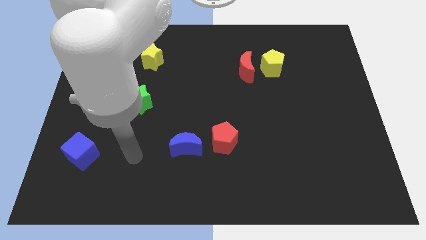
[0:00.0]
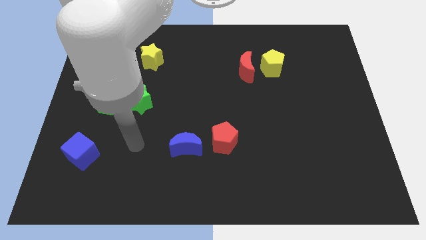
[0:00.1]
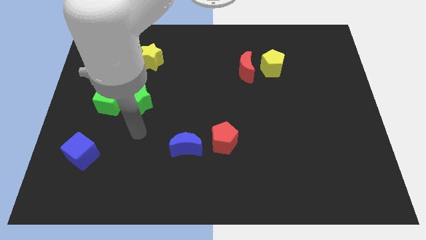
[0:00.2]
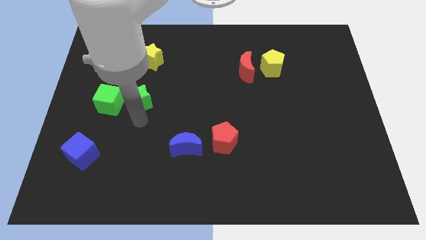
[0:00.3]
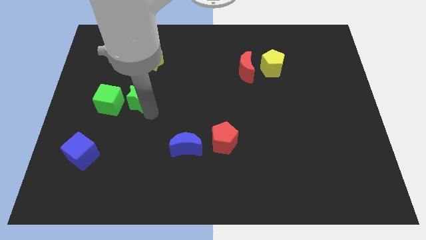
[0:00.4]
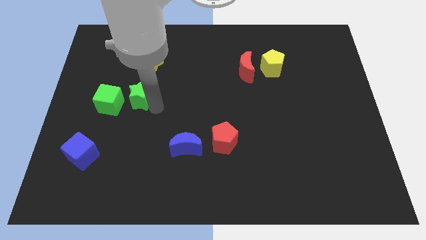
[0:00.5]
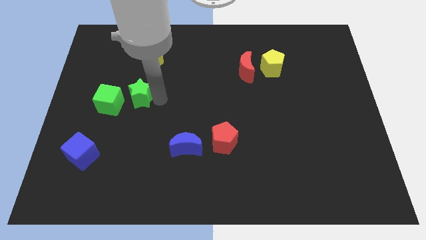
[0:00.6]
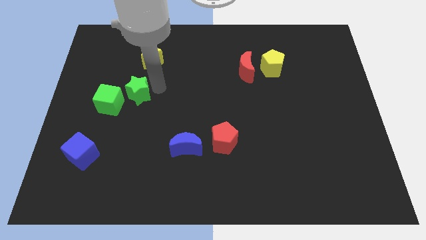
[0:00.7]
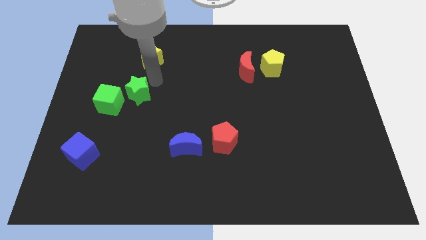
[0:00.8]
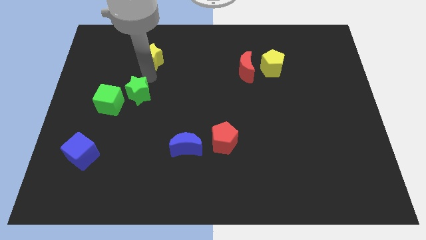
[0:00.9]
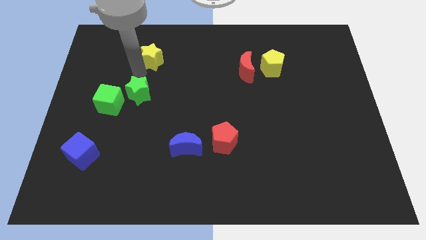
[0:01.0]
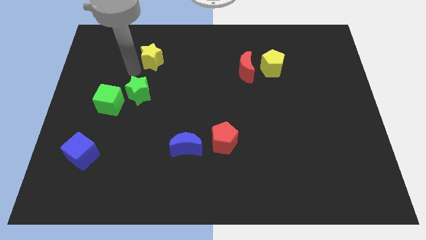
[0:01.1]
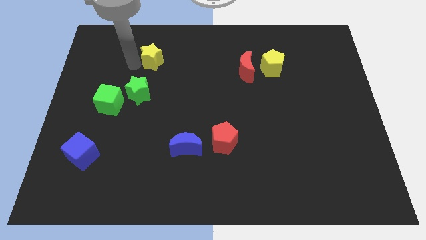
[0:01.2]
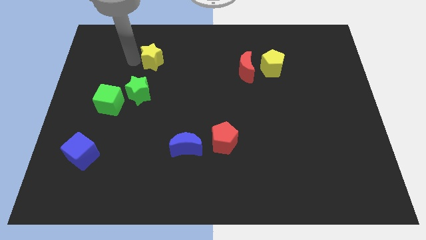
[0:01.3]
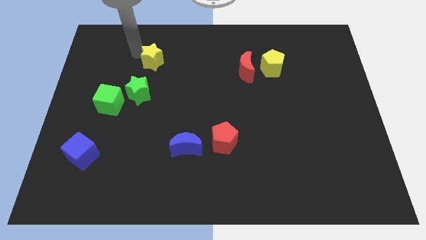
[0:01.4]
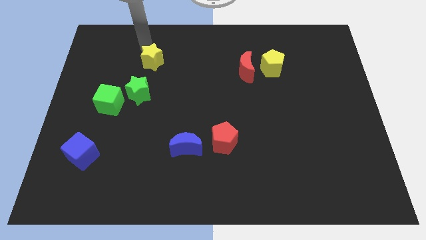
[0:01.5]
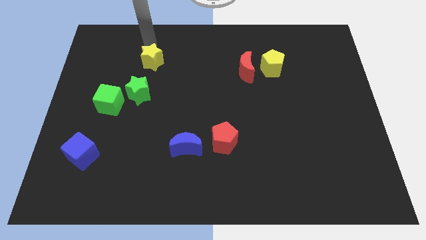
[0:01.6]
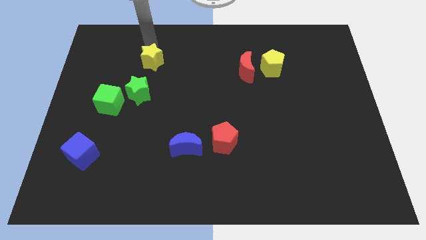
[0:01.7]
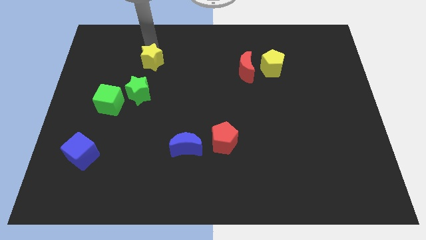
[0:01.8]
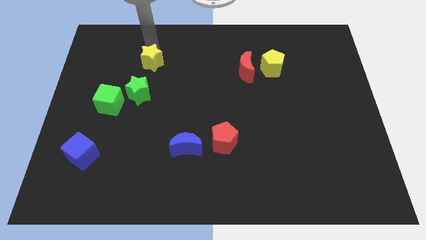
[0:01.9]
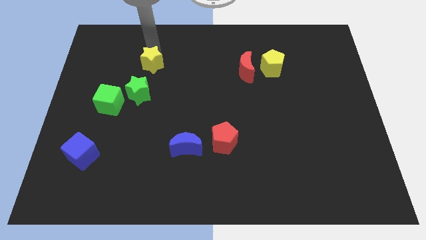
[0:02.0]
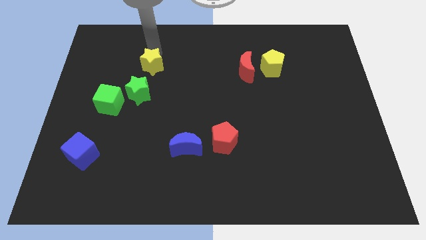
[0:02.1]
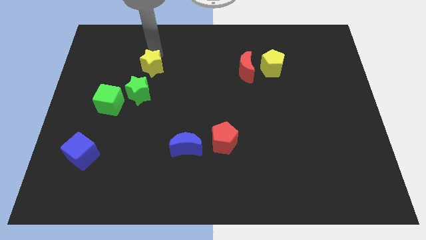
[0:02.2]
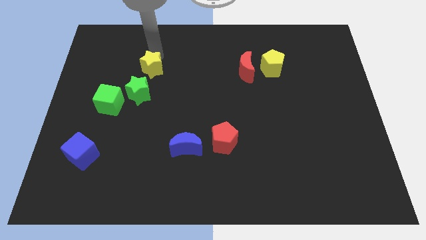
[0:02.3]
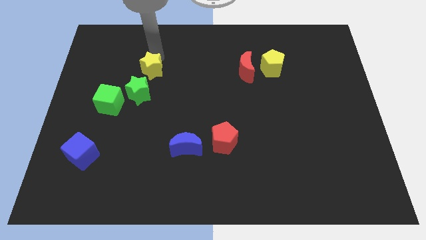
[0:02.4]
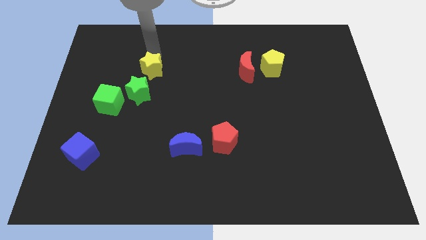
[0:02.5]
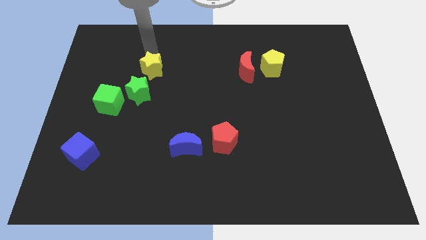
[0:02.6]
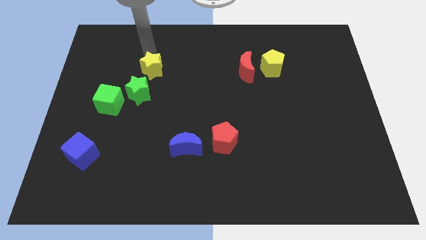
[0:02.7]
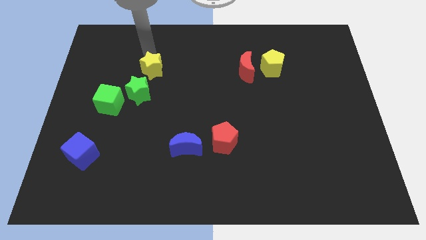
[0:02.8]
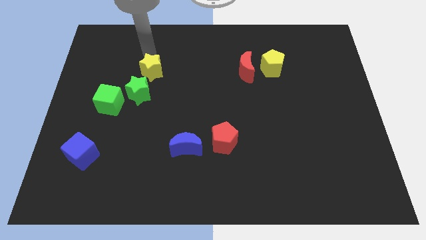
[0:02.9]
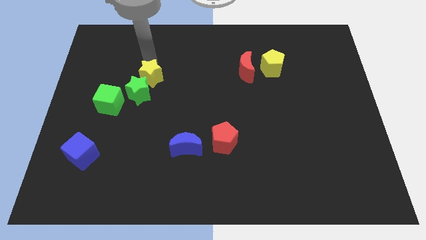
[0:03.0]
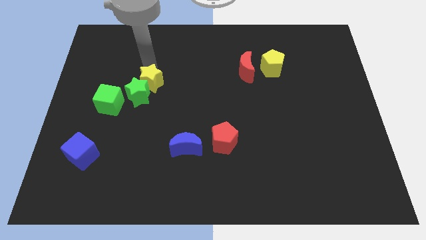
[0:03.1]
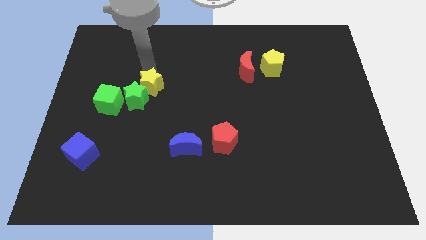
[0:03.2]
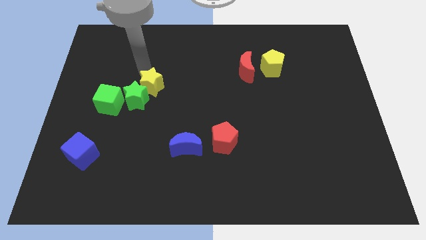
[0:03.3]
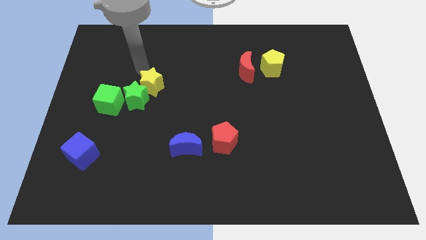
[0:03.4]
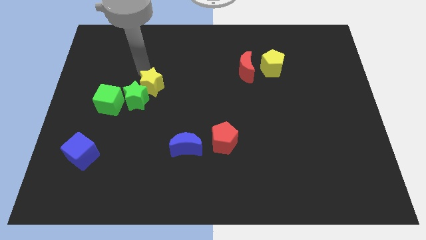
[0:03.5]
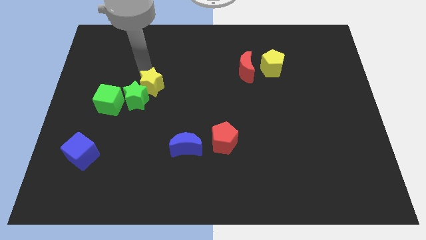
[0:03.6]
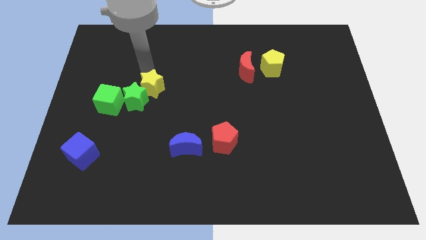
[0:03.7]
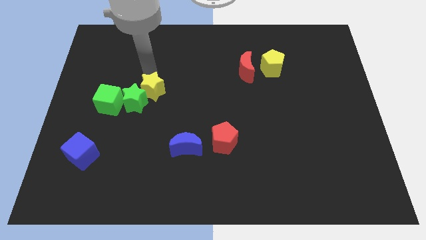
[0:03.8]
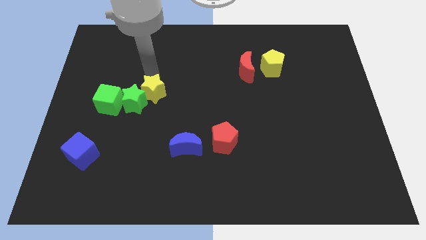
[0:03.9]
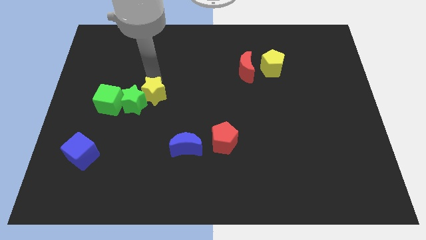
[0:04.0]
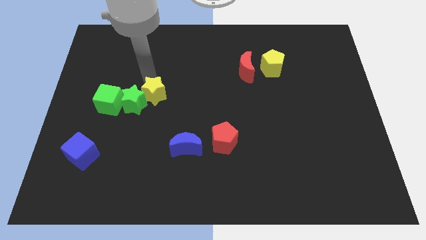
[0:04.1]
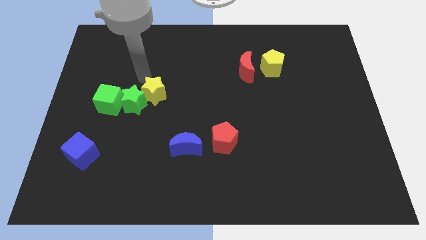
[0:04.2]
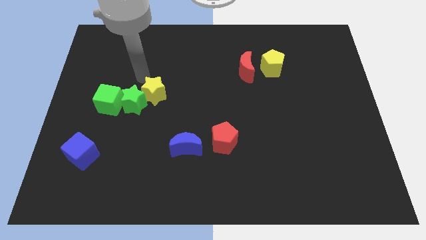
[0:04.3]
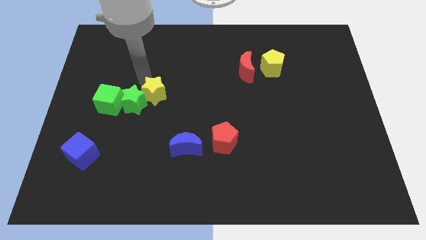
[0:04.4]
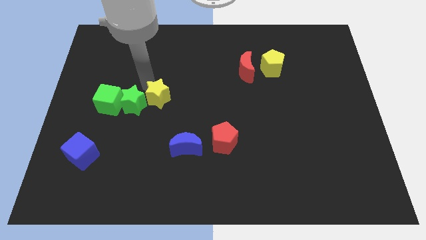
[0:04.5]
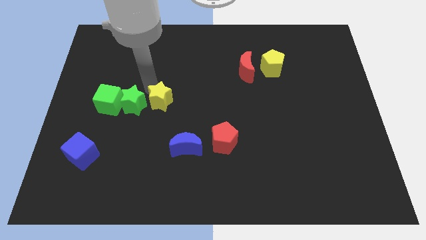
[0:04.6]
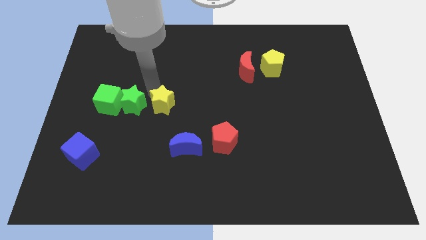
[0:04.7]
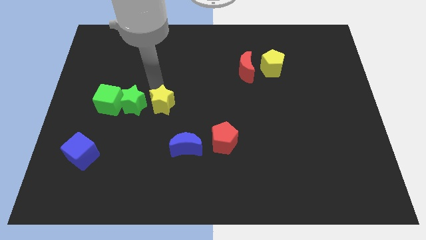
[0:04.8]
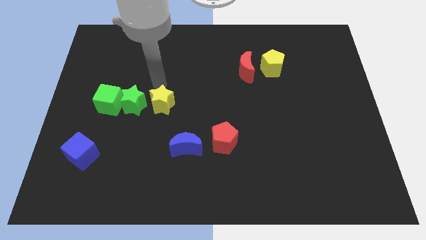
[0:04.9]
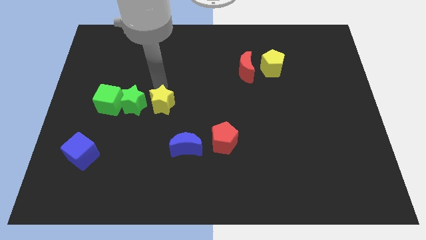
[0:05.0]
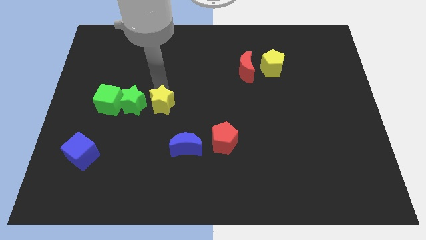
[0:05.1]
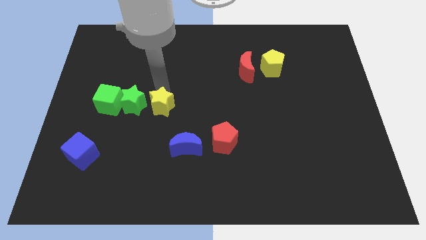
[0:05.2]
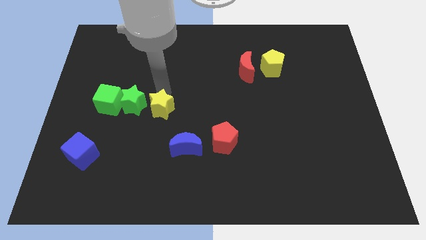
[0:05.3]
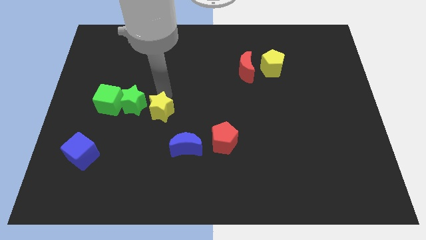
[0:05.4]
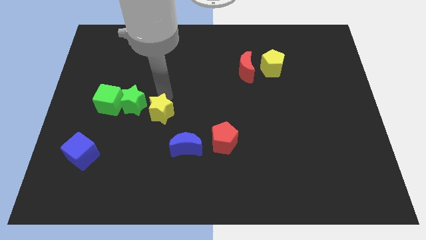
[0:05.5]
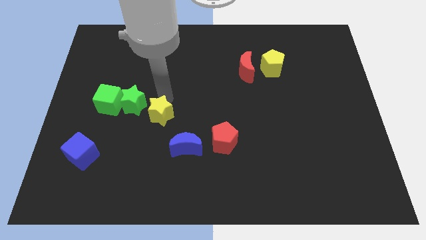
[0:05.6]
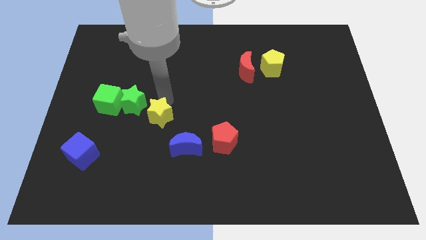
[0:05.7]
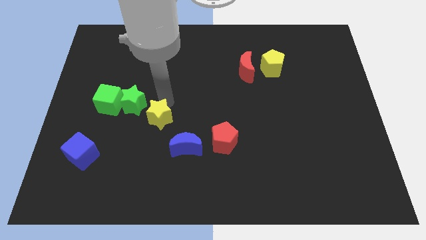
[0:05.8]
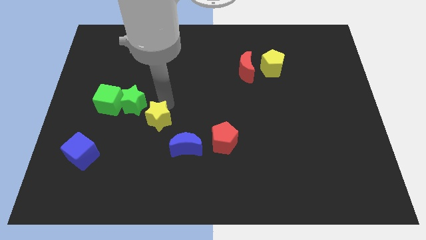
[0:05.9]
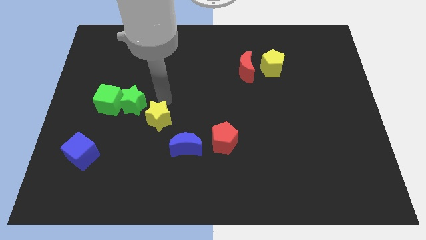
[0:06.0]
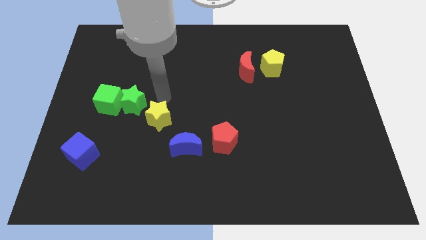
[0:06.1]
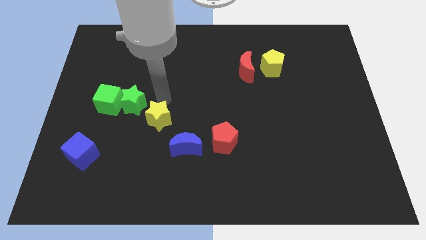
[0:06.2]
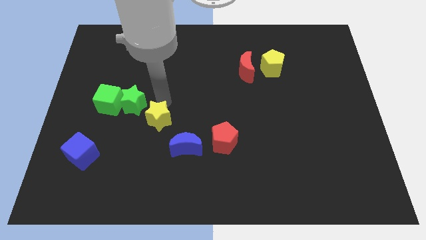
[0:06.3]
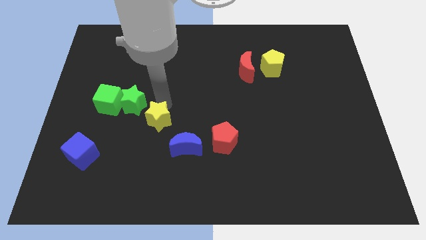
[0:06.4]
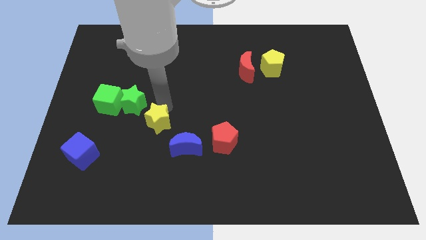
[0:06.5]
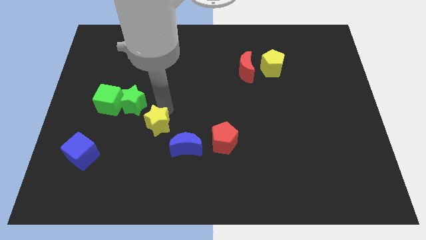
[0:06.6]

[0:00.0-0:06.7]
move the yellow star down

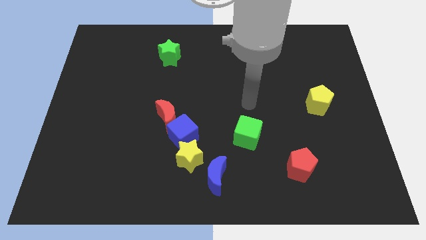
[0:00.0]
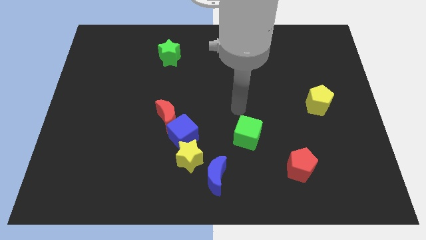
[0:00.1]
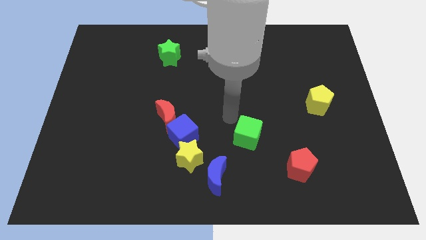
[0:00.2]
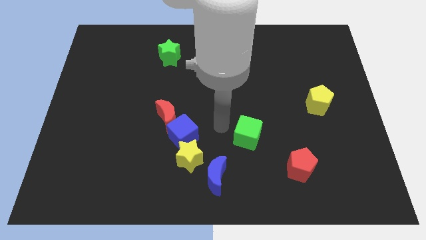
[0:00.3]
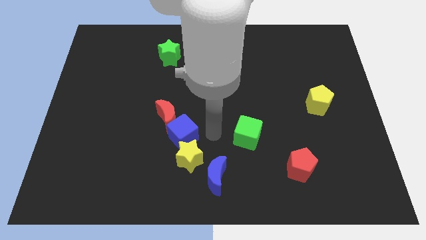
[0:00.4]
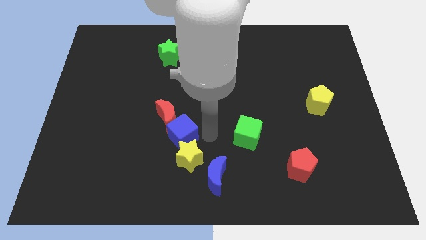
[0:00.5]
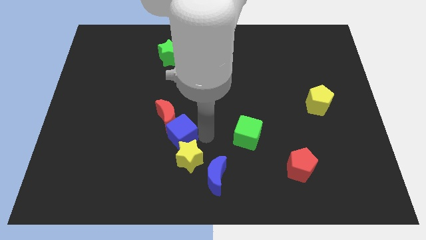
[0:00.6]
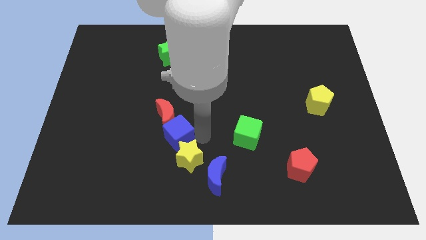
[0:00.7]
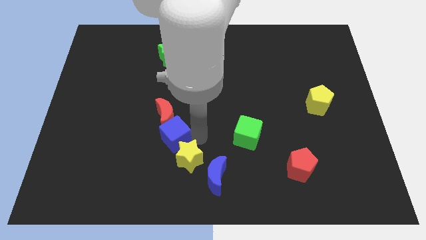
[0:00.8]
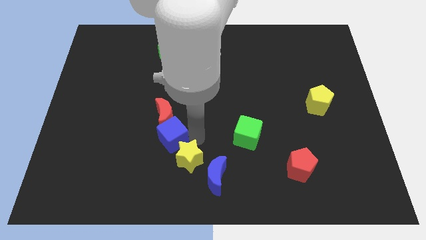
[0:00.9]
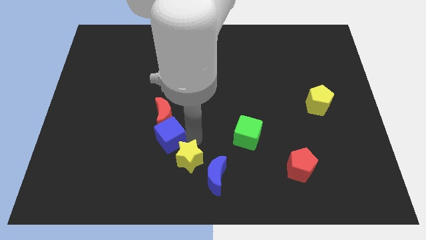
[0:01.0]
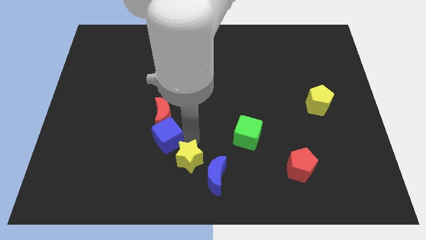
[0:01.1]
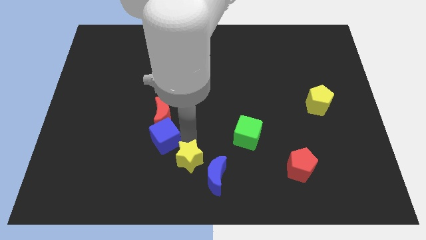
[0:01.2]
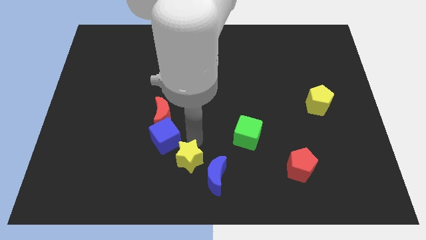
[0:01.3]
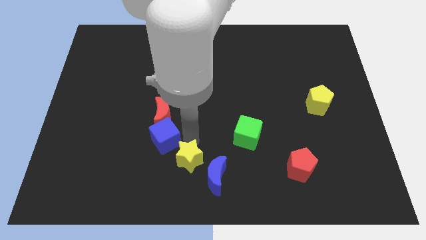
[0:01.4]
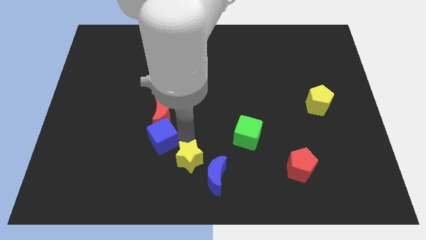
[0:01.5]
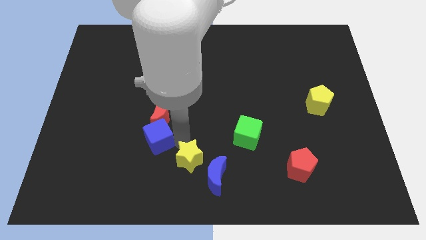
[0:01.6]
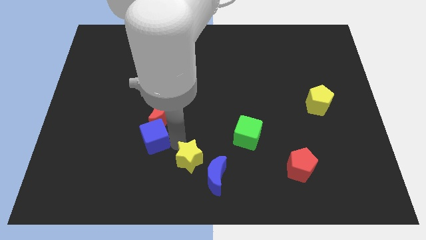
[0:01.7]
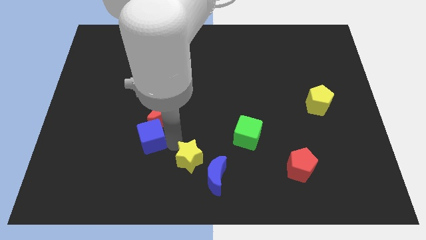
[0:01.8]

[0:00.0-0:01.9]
move the blue cube slightly left
